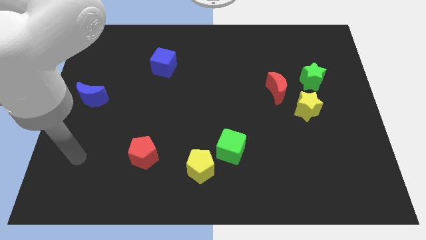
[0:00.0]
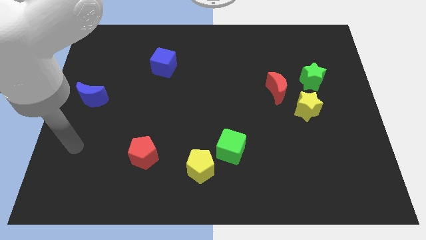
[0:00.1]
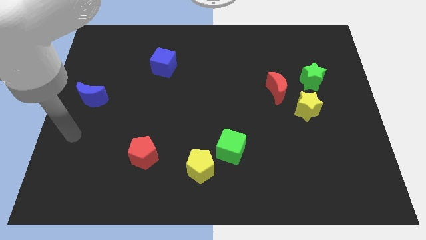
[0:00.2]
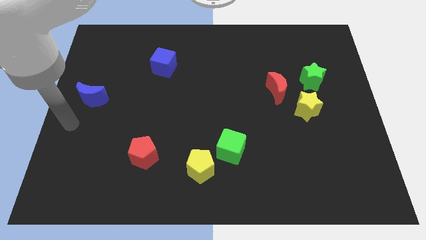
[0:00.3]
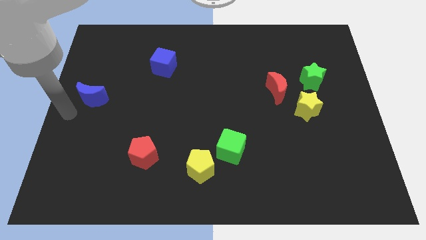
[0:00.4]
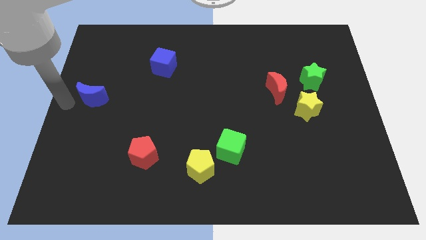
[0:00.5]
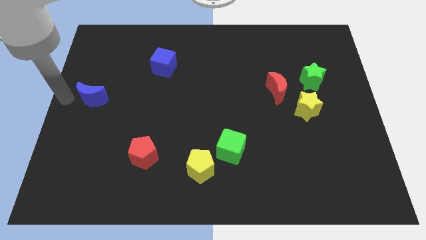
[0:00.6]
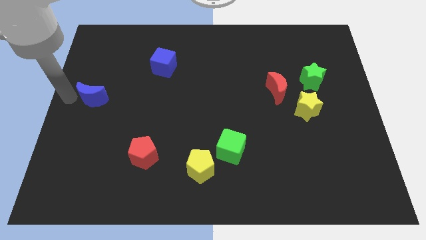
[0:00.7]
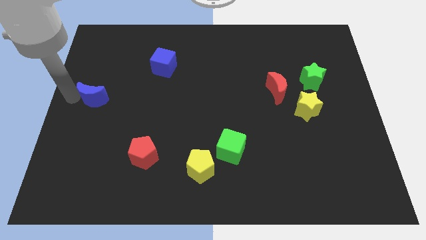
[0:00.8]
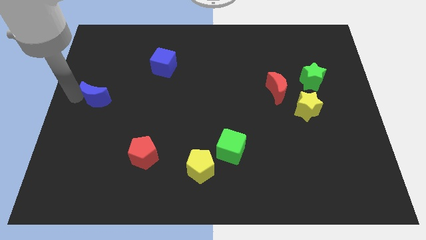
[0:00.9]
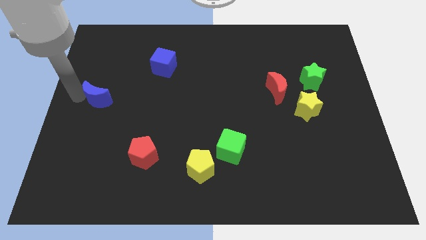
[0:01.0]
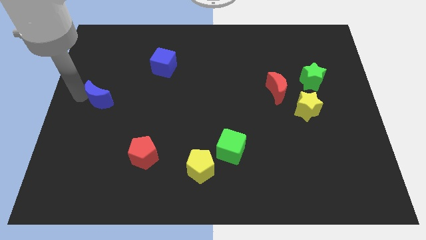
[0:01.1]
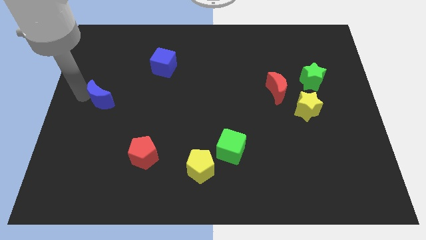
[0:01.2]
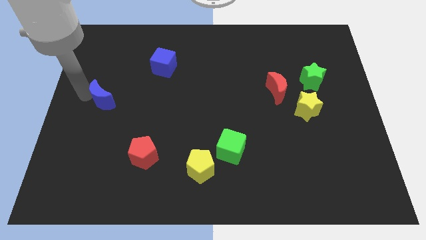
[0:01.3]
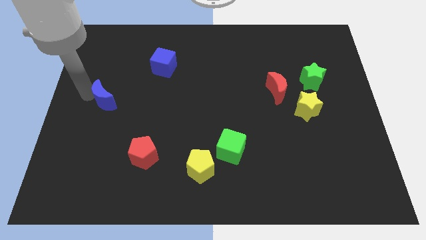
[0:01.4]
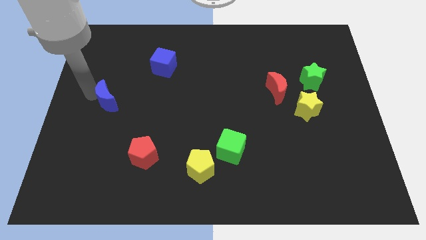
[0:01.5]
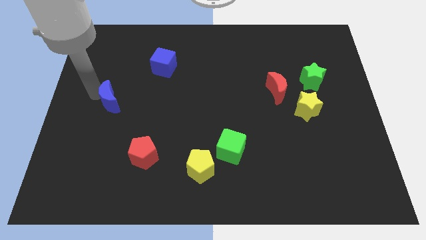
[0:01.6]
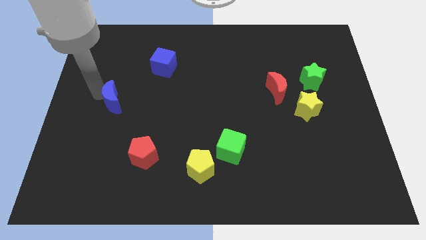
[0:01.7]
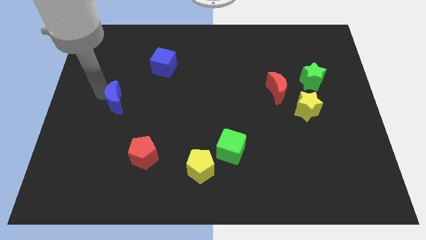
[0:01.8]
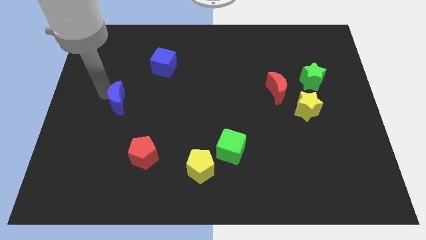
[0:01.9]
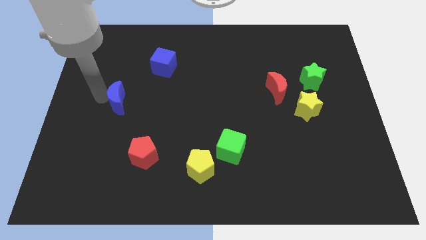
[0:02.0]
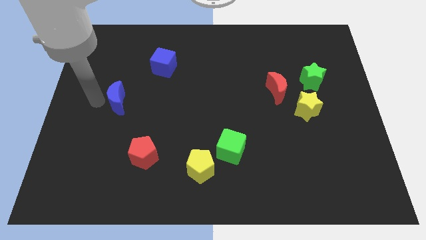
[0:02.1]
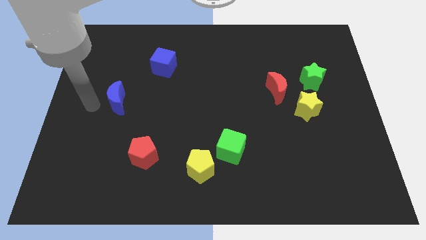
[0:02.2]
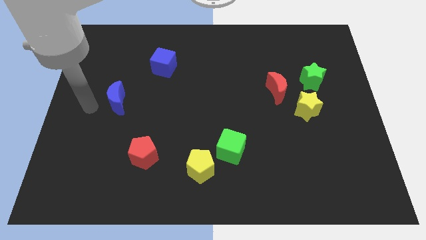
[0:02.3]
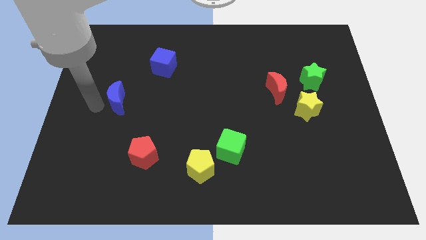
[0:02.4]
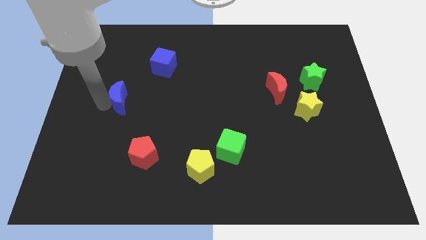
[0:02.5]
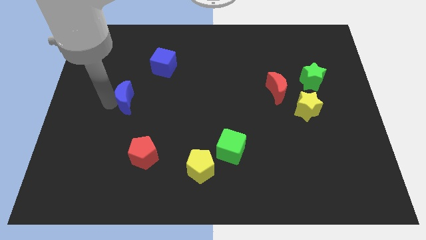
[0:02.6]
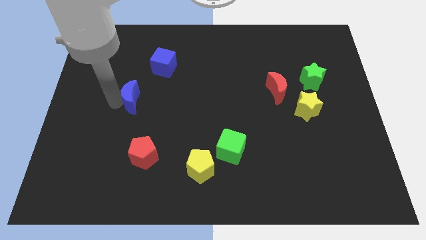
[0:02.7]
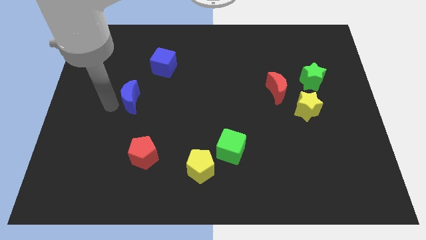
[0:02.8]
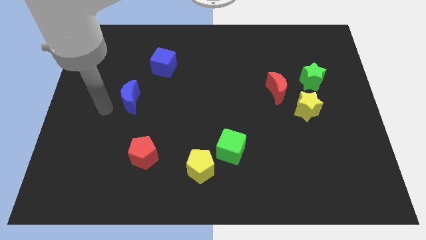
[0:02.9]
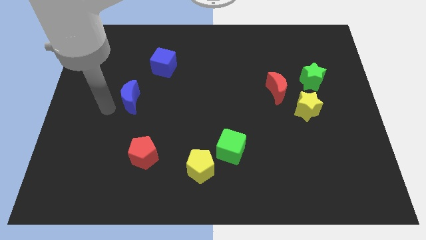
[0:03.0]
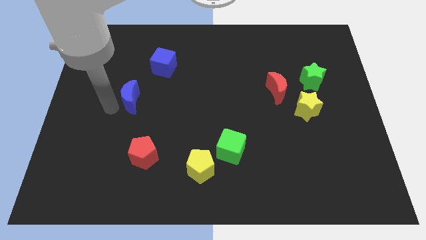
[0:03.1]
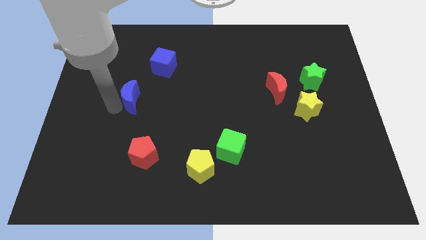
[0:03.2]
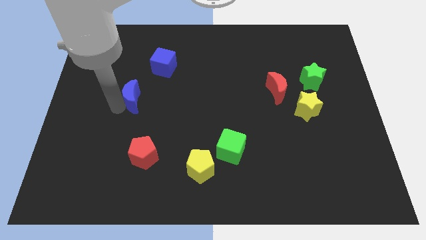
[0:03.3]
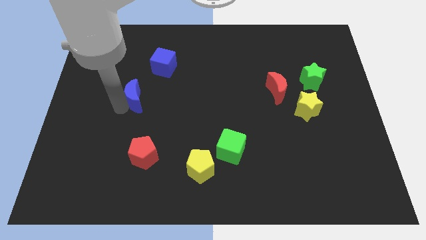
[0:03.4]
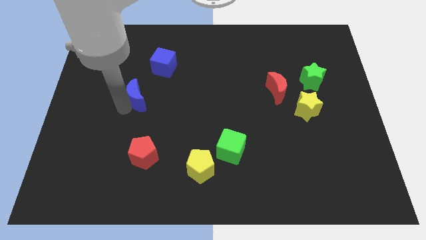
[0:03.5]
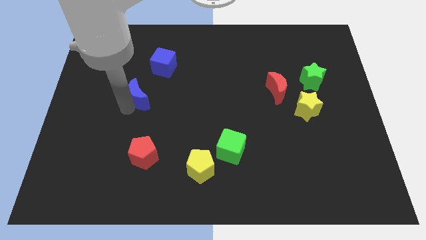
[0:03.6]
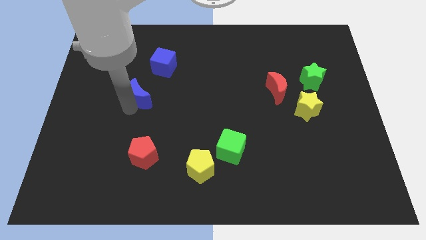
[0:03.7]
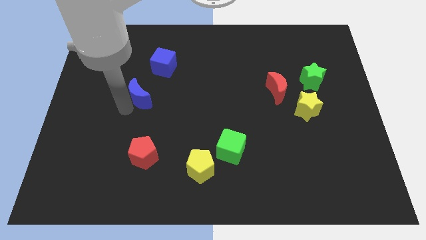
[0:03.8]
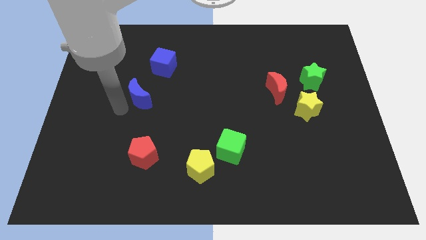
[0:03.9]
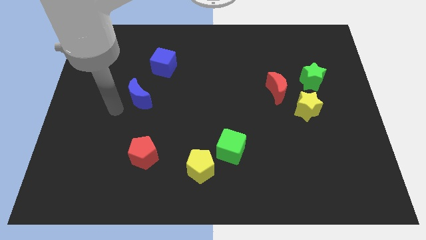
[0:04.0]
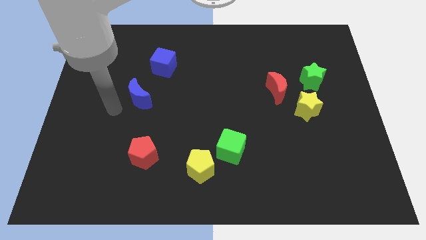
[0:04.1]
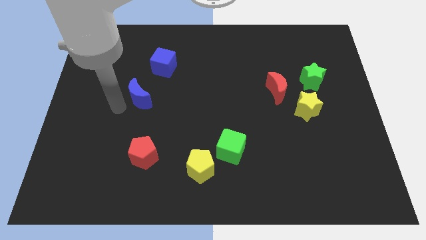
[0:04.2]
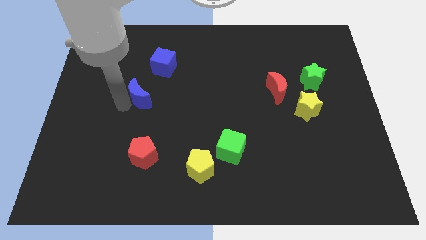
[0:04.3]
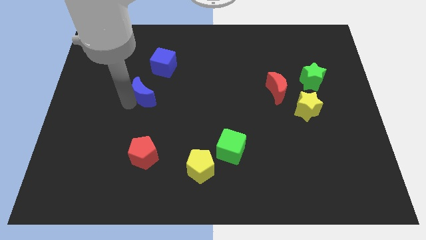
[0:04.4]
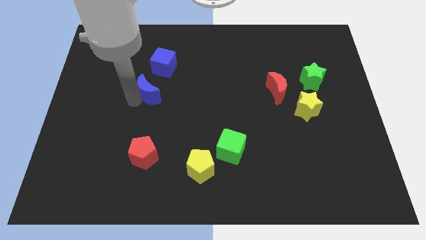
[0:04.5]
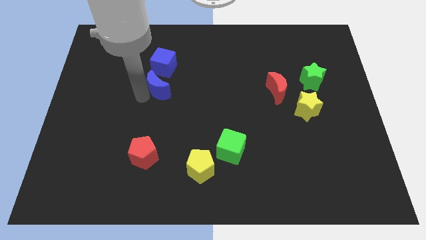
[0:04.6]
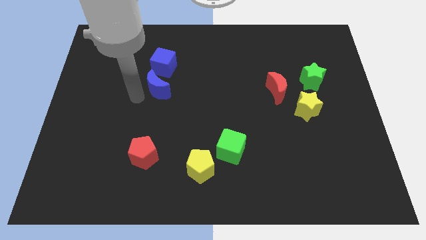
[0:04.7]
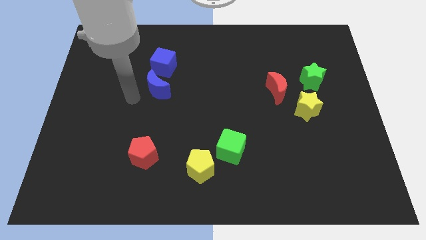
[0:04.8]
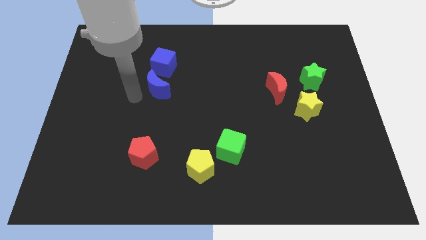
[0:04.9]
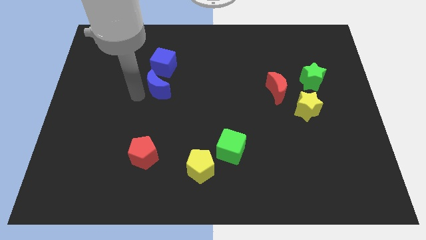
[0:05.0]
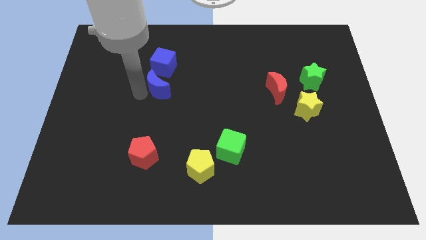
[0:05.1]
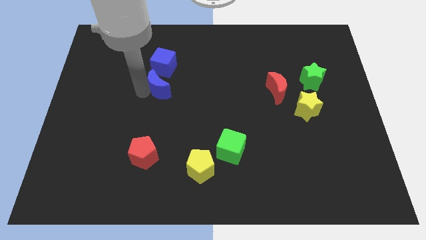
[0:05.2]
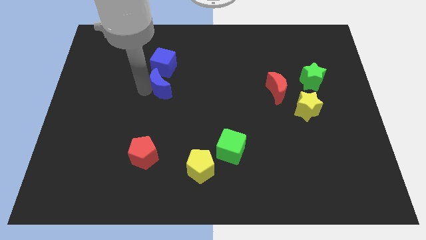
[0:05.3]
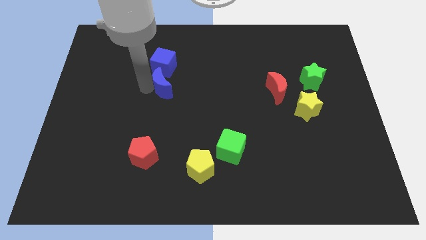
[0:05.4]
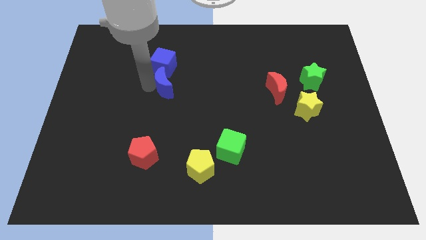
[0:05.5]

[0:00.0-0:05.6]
put the blue moon to the bottom right of the blue cube

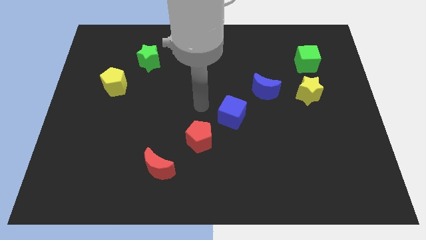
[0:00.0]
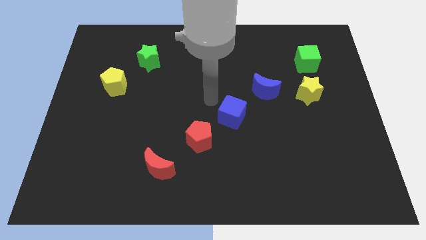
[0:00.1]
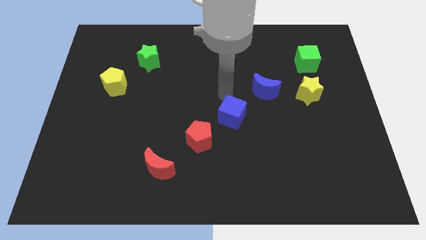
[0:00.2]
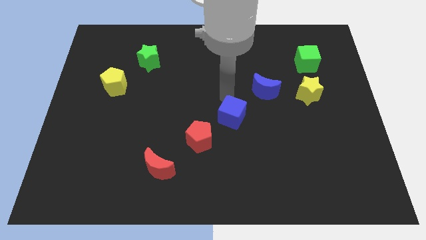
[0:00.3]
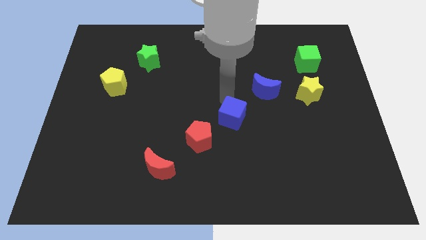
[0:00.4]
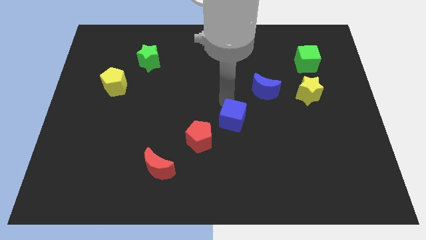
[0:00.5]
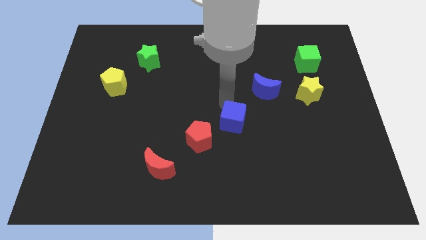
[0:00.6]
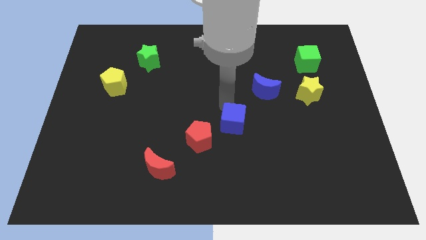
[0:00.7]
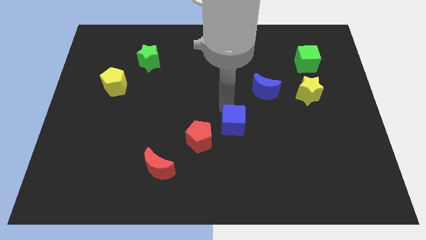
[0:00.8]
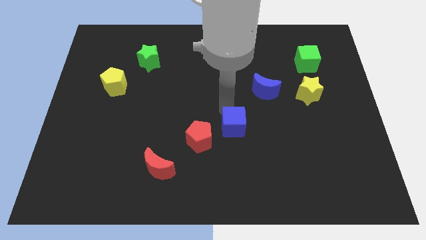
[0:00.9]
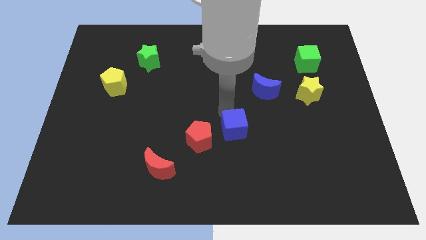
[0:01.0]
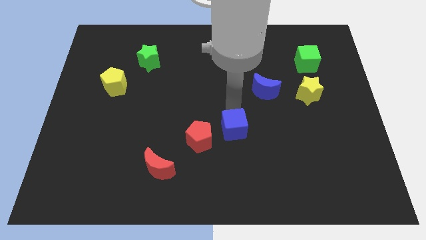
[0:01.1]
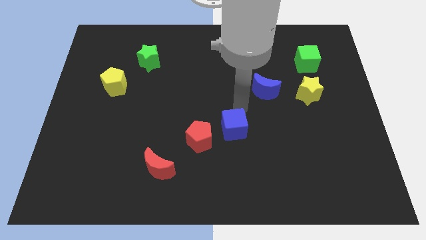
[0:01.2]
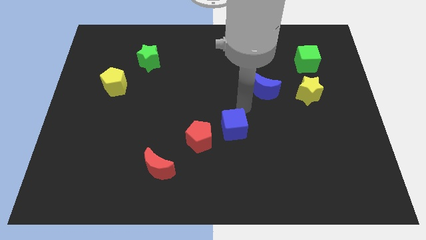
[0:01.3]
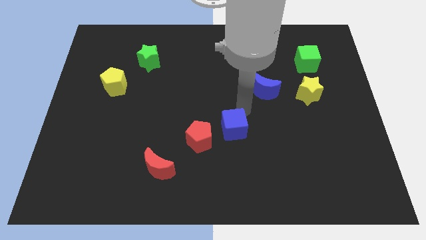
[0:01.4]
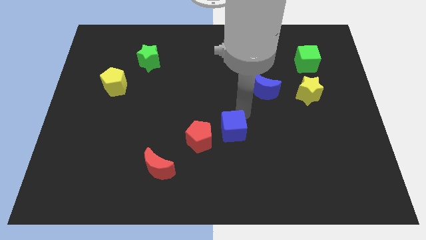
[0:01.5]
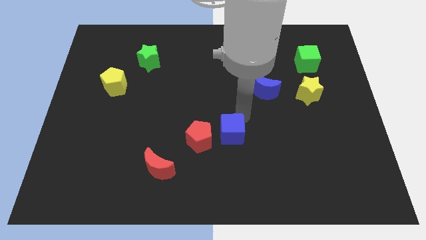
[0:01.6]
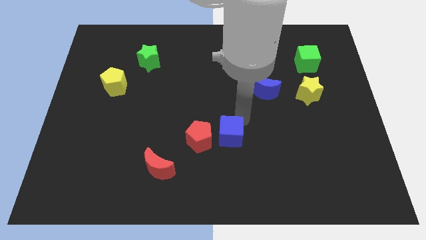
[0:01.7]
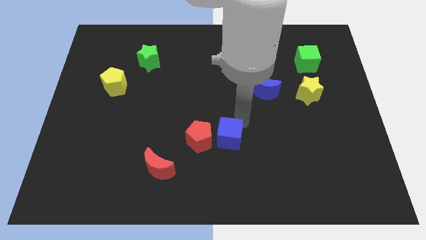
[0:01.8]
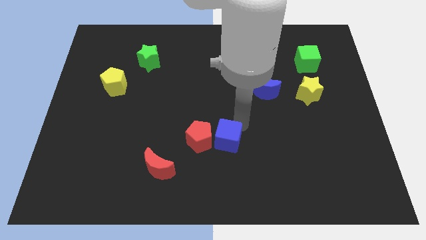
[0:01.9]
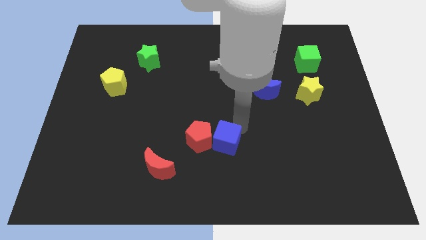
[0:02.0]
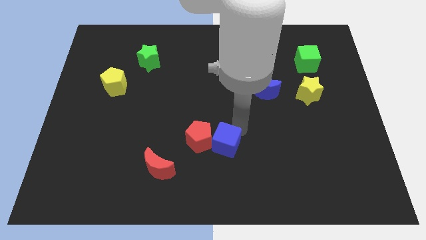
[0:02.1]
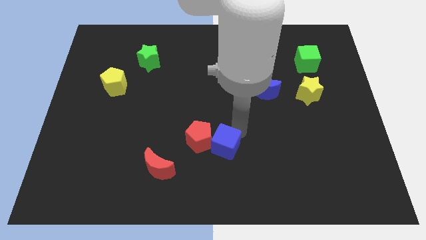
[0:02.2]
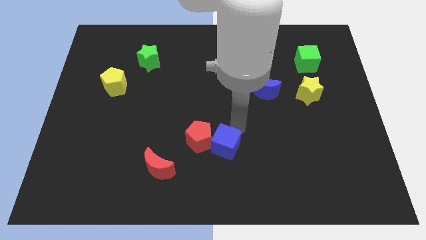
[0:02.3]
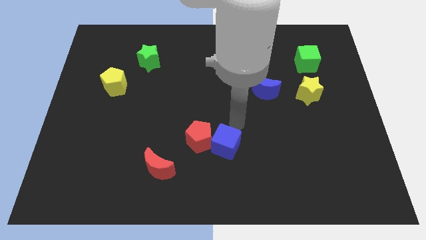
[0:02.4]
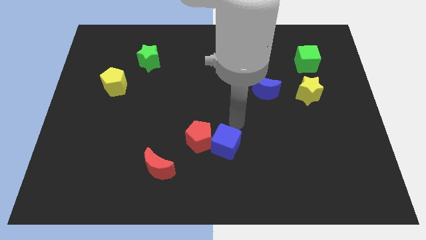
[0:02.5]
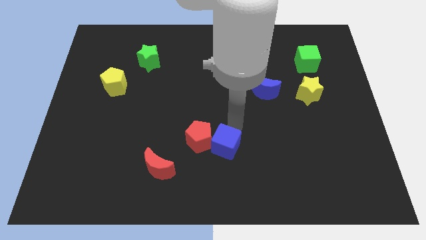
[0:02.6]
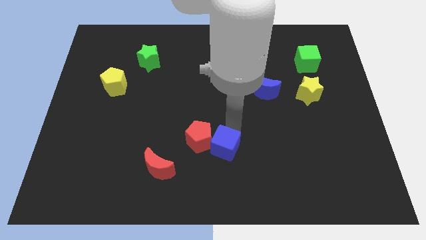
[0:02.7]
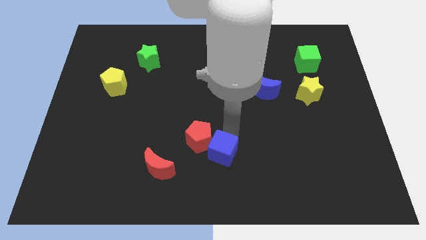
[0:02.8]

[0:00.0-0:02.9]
slide the blue cube right of the red moon
